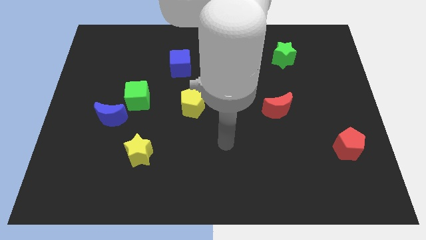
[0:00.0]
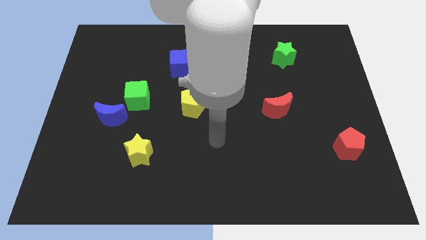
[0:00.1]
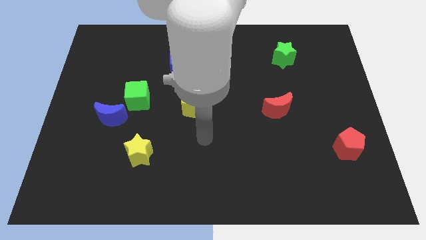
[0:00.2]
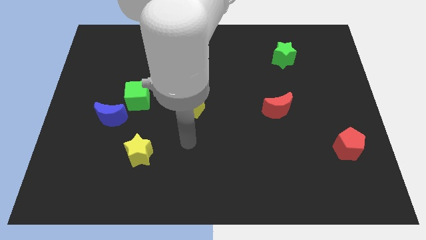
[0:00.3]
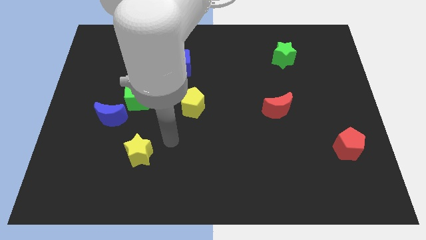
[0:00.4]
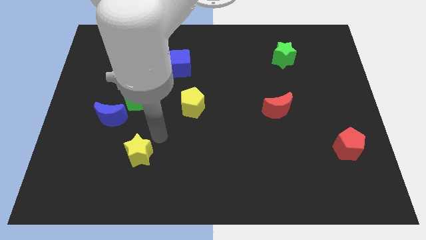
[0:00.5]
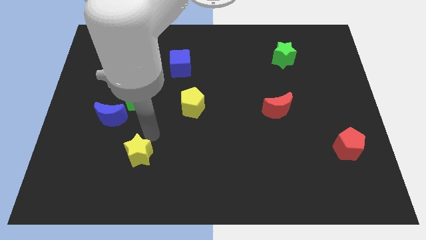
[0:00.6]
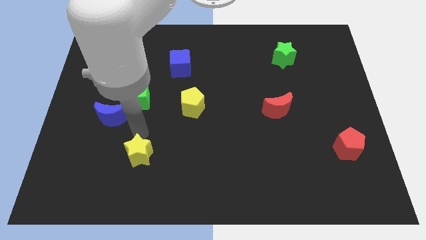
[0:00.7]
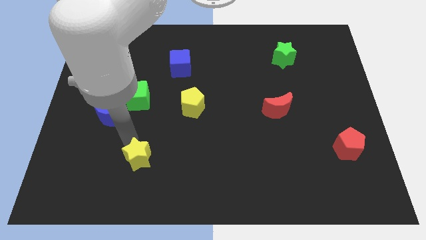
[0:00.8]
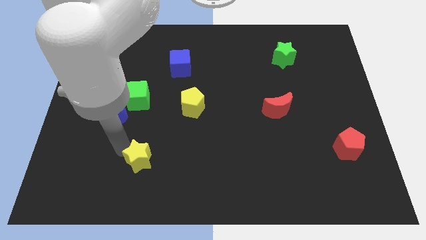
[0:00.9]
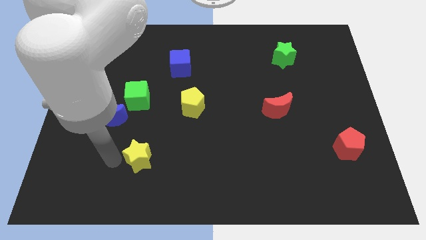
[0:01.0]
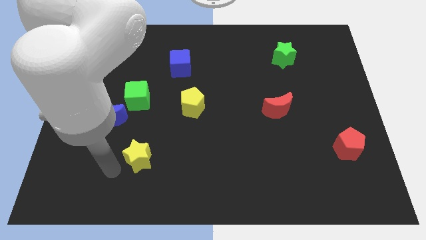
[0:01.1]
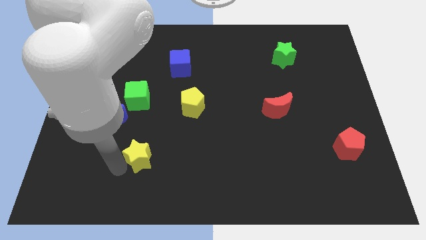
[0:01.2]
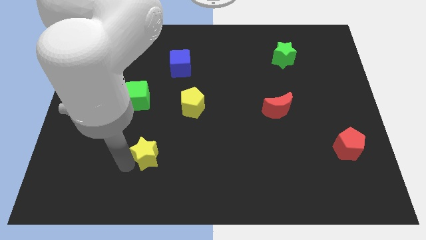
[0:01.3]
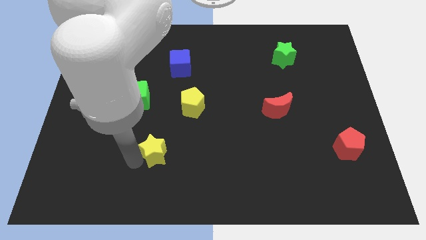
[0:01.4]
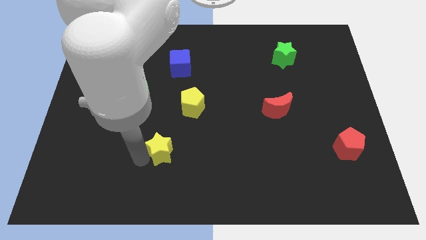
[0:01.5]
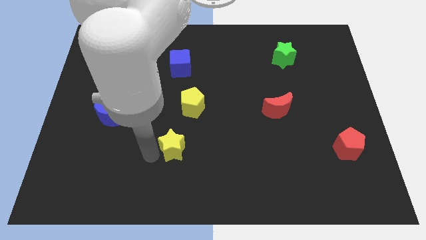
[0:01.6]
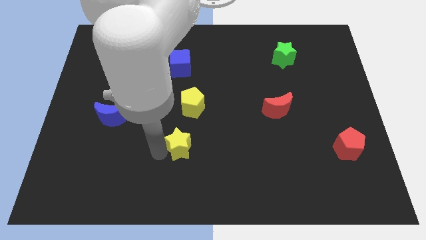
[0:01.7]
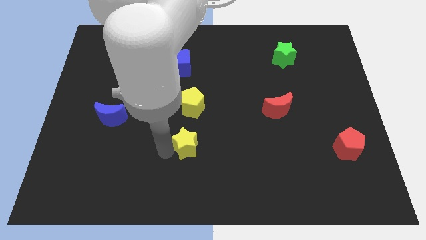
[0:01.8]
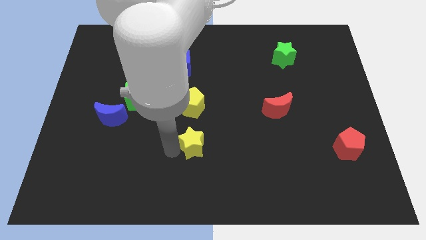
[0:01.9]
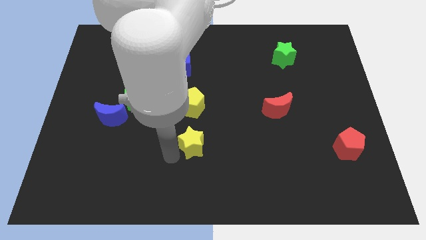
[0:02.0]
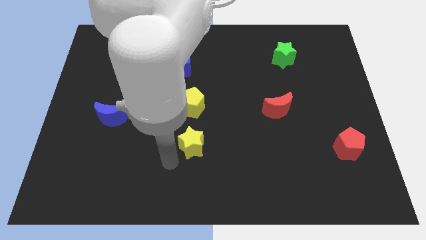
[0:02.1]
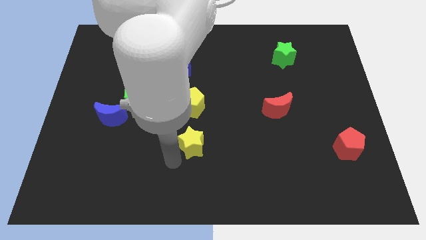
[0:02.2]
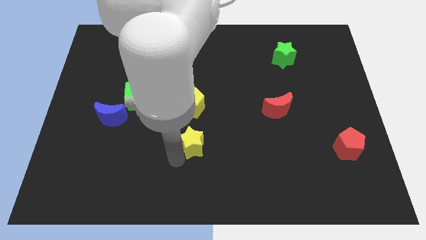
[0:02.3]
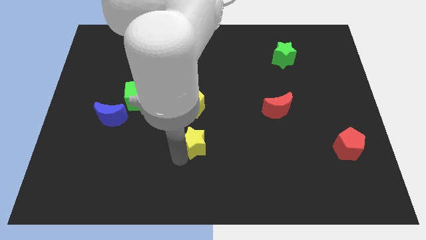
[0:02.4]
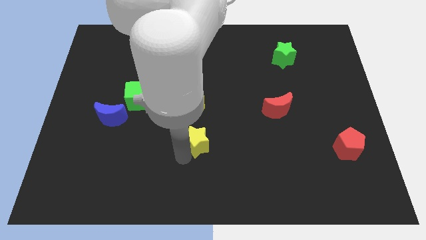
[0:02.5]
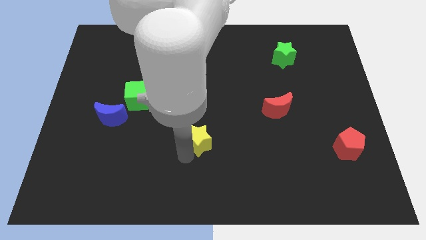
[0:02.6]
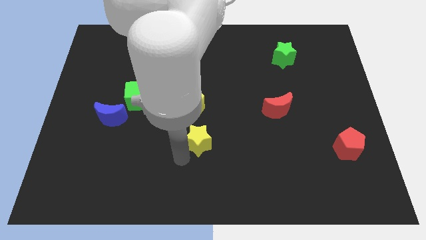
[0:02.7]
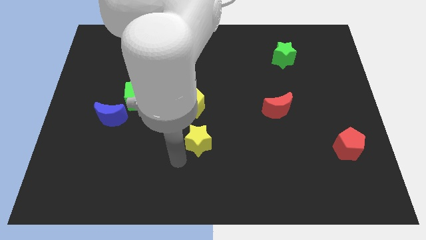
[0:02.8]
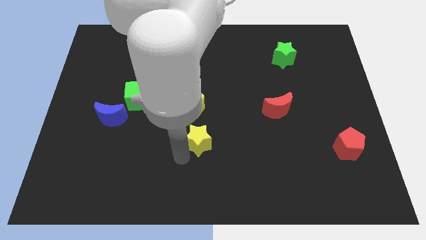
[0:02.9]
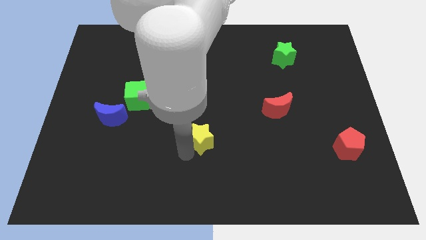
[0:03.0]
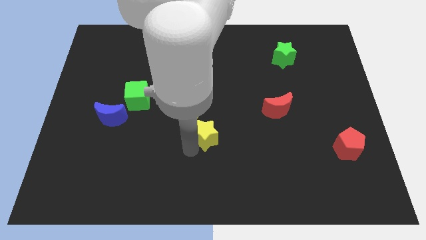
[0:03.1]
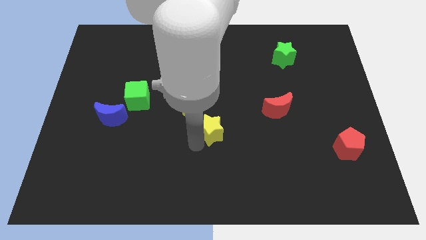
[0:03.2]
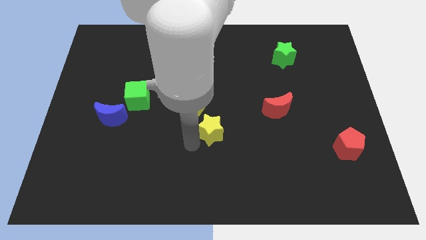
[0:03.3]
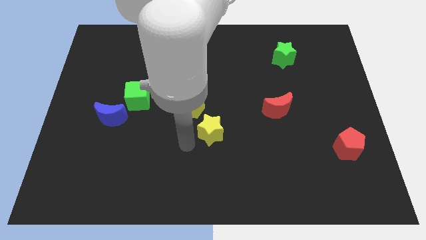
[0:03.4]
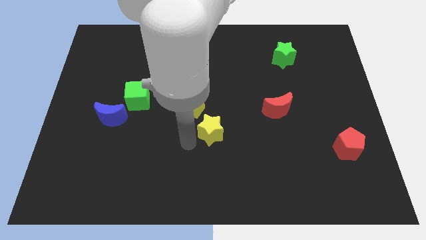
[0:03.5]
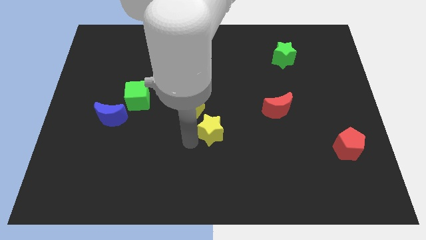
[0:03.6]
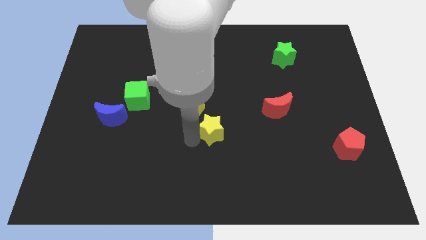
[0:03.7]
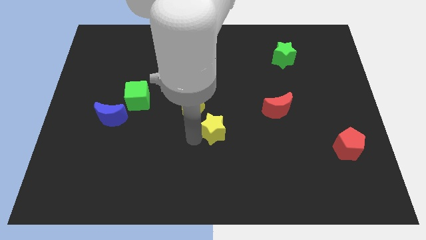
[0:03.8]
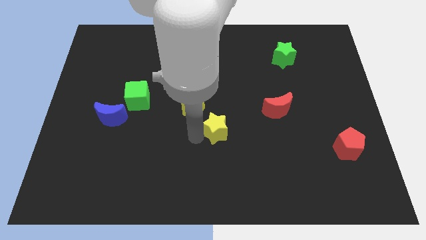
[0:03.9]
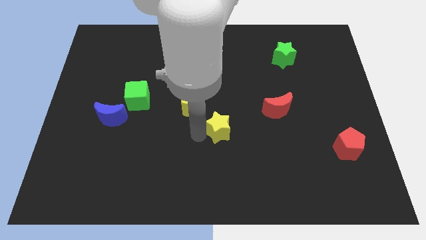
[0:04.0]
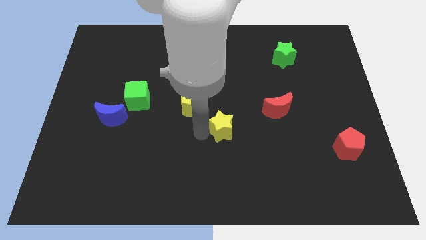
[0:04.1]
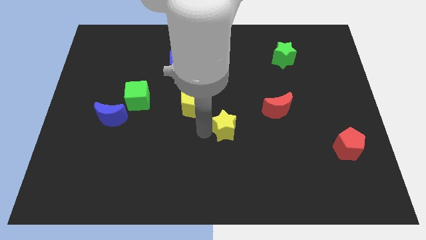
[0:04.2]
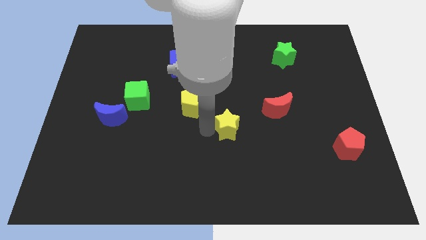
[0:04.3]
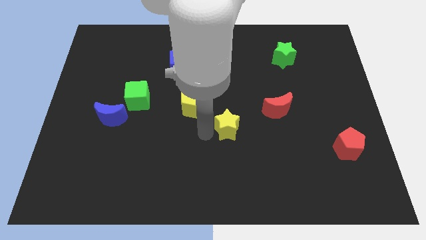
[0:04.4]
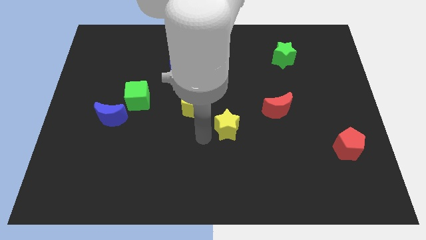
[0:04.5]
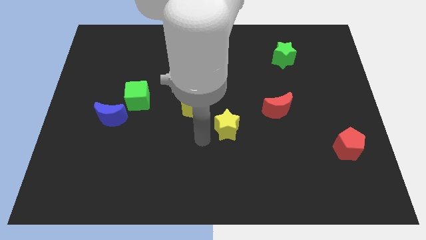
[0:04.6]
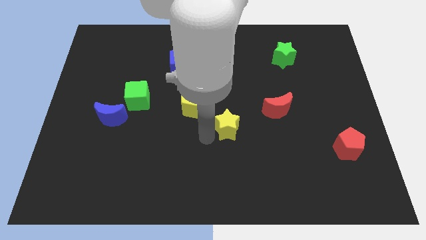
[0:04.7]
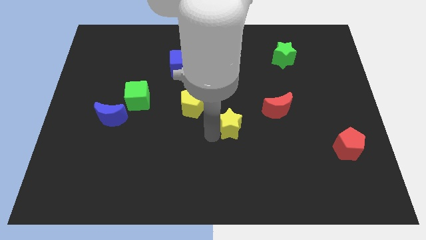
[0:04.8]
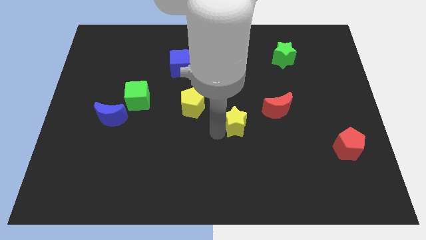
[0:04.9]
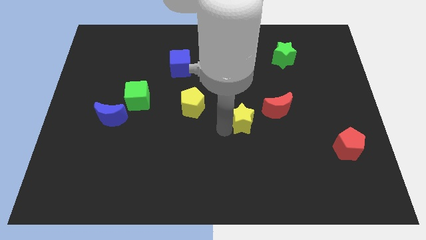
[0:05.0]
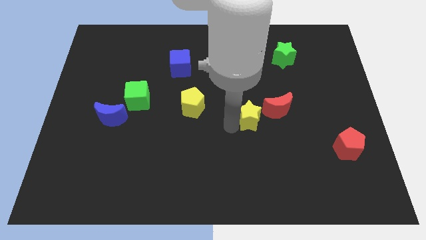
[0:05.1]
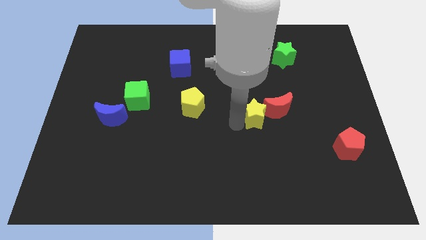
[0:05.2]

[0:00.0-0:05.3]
push the yellow star close to the red moon

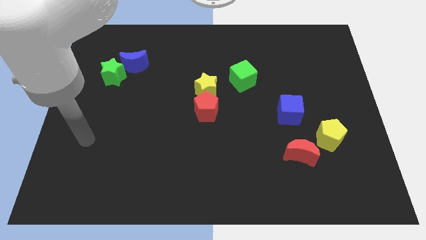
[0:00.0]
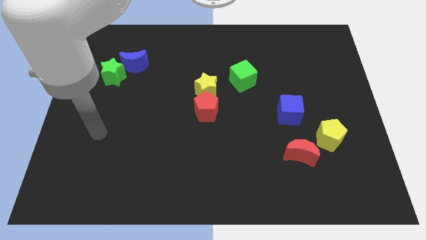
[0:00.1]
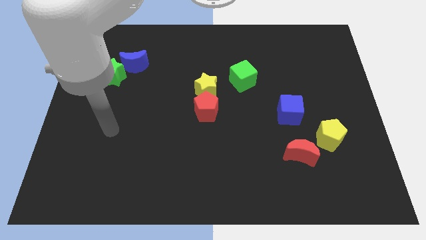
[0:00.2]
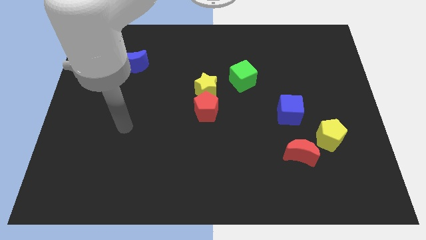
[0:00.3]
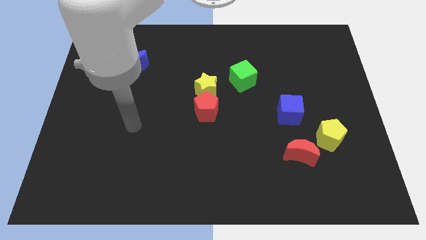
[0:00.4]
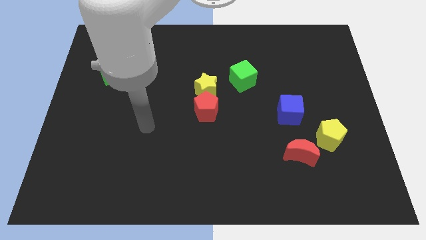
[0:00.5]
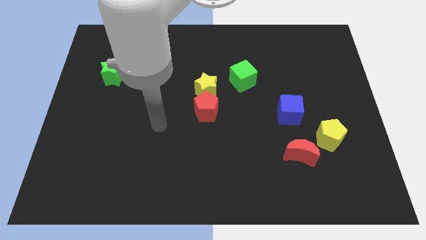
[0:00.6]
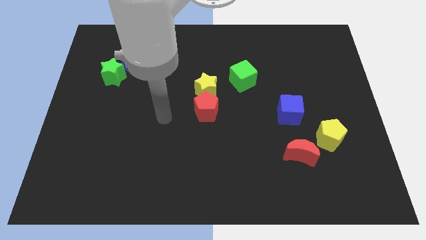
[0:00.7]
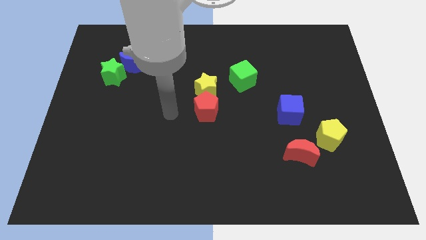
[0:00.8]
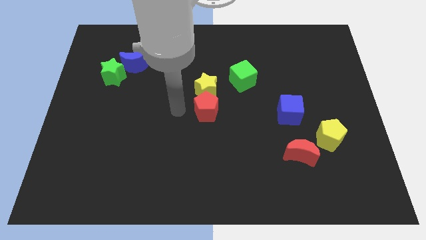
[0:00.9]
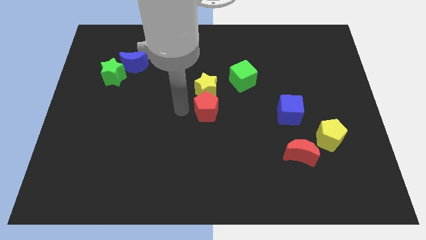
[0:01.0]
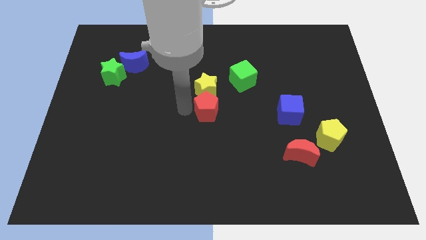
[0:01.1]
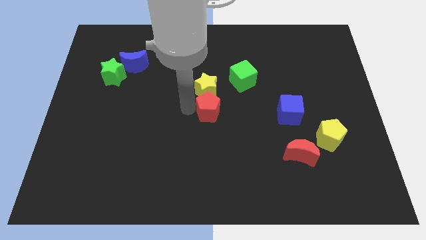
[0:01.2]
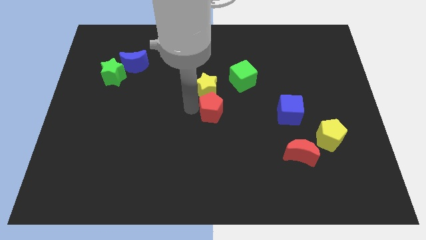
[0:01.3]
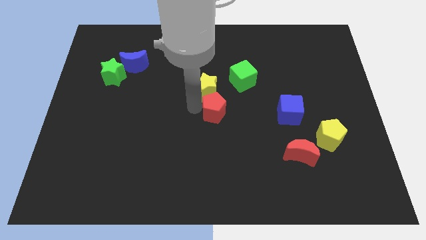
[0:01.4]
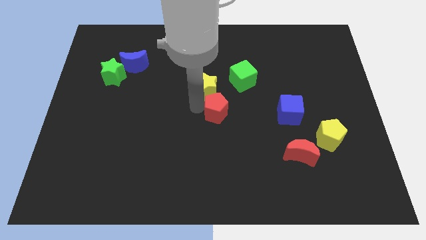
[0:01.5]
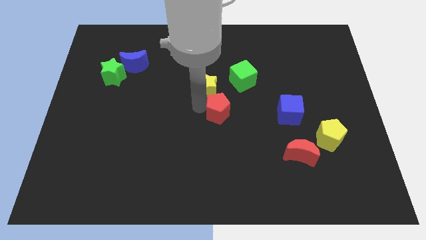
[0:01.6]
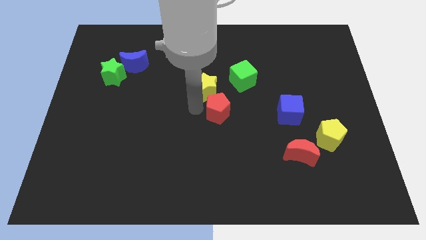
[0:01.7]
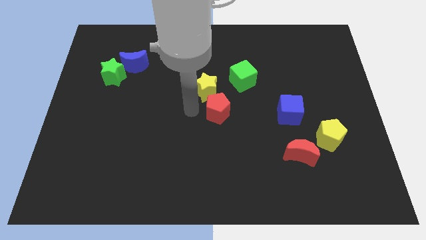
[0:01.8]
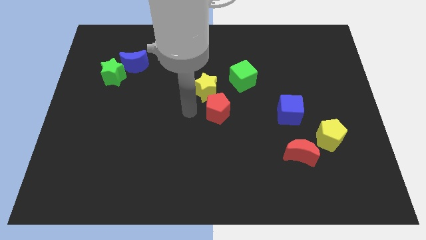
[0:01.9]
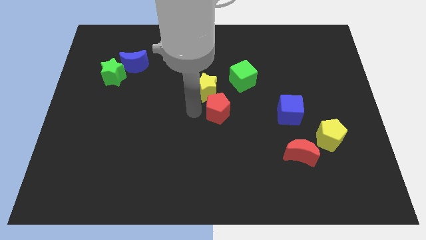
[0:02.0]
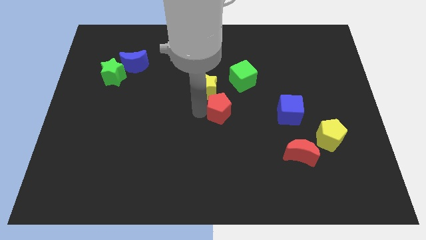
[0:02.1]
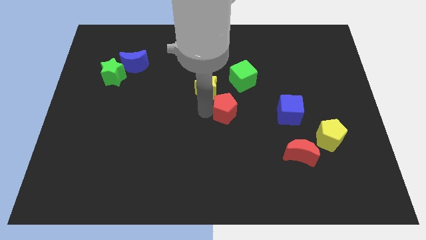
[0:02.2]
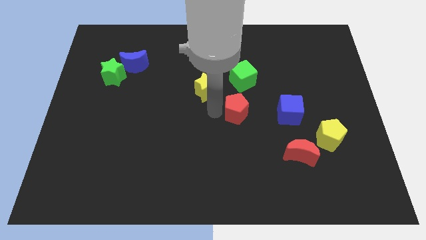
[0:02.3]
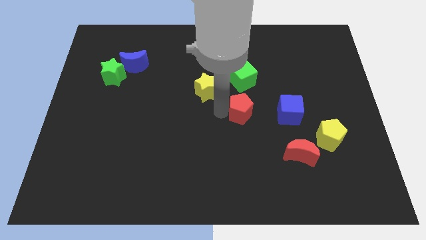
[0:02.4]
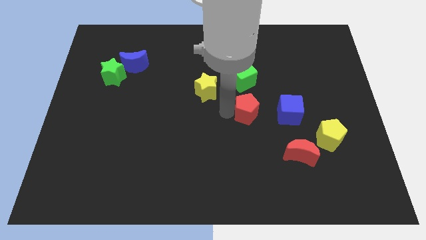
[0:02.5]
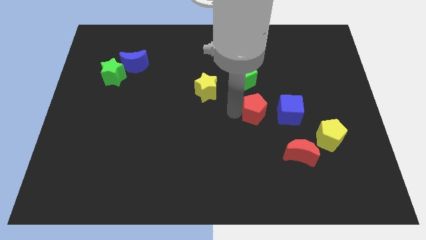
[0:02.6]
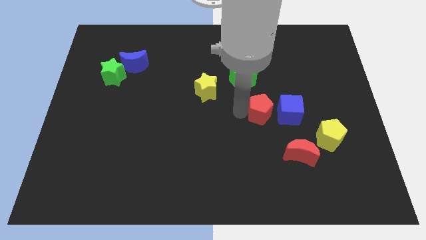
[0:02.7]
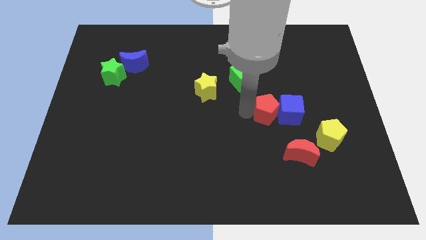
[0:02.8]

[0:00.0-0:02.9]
move the red pentagon close to the blue cube
